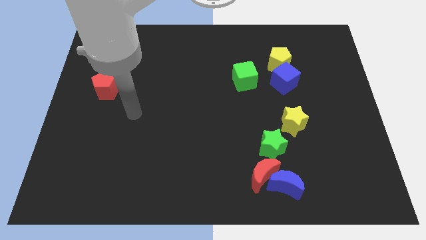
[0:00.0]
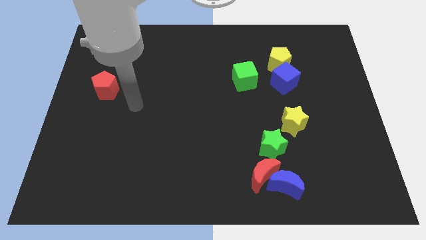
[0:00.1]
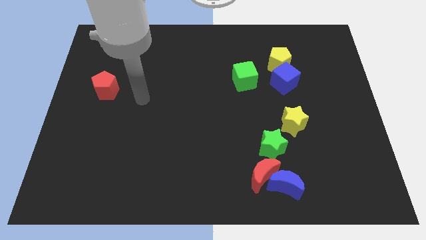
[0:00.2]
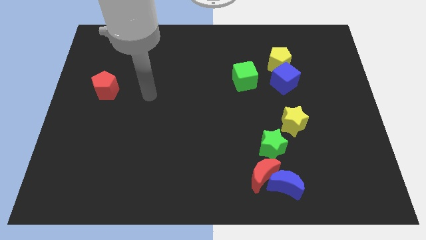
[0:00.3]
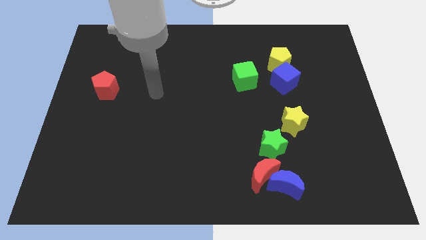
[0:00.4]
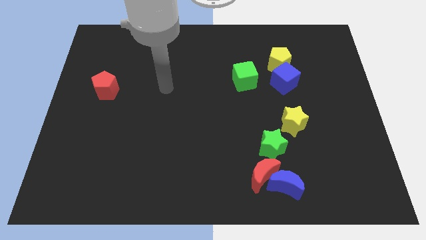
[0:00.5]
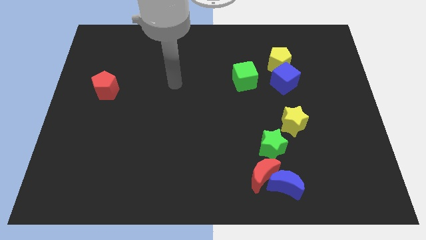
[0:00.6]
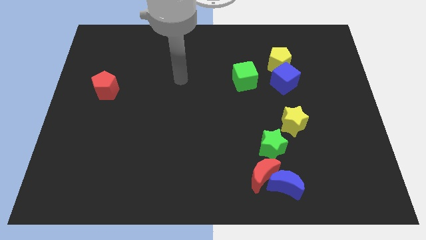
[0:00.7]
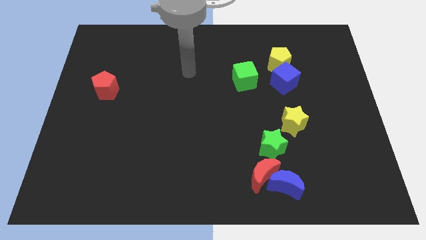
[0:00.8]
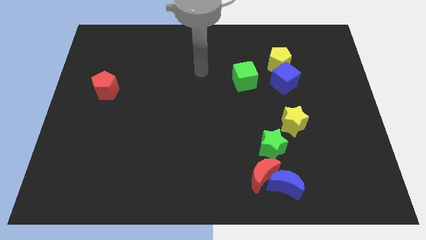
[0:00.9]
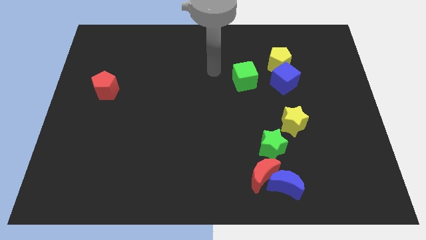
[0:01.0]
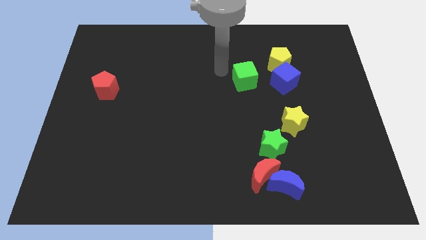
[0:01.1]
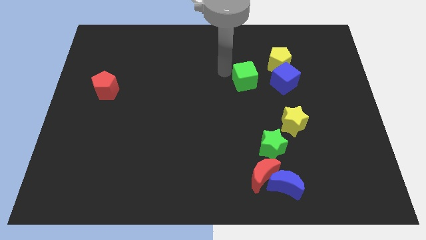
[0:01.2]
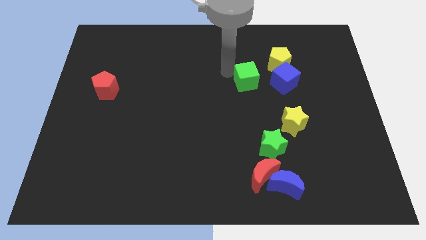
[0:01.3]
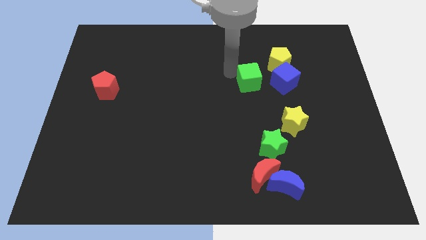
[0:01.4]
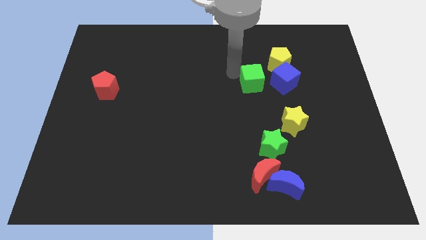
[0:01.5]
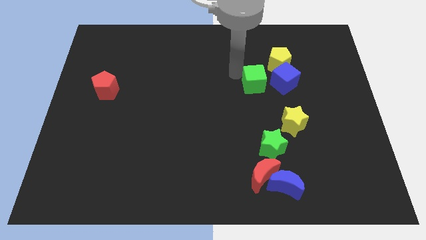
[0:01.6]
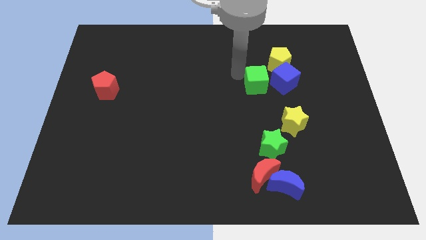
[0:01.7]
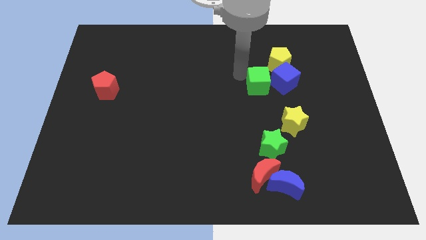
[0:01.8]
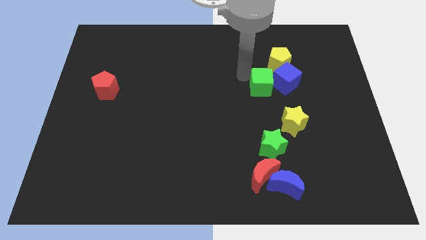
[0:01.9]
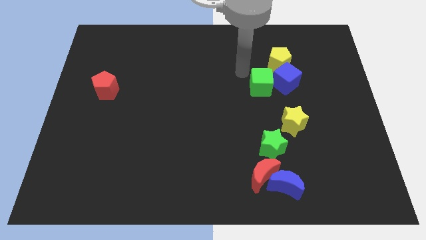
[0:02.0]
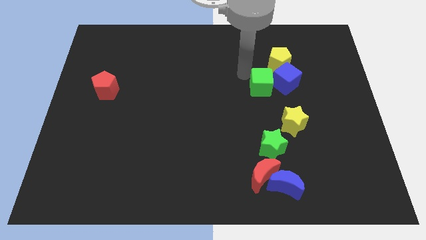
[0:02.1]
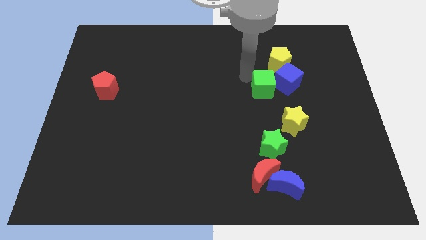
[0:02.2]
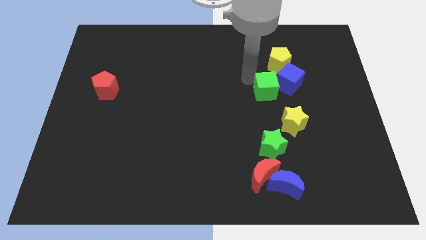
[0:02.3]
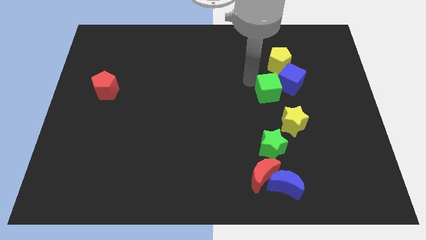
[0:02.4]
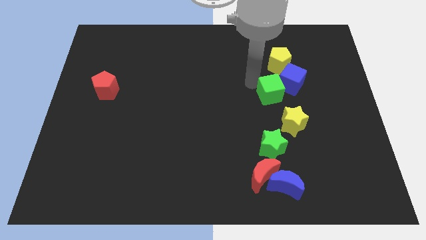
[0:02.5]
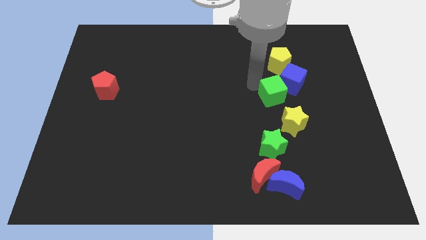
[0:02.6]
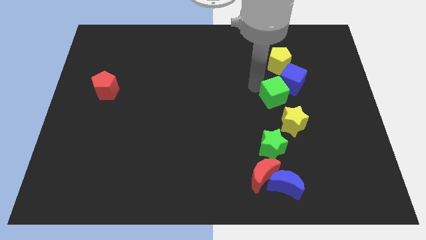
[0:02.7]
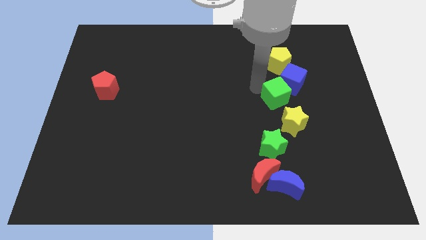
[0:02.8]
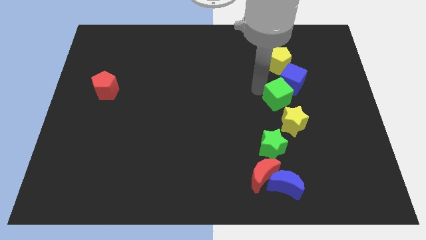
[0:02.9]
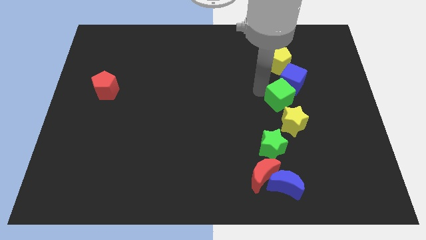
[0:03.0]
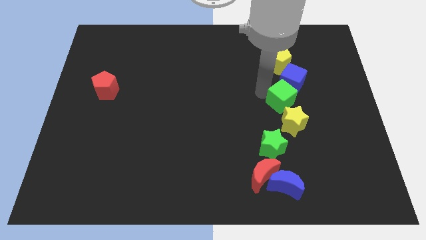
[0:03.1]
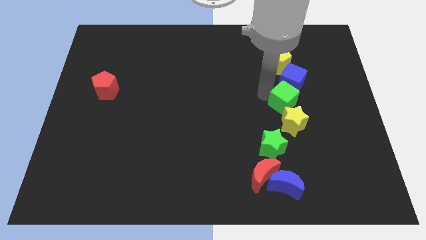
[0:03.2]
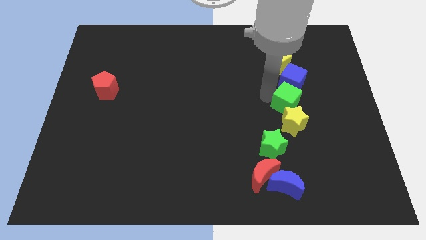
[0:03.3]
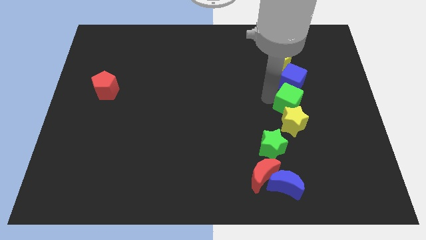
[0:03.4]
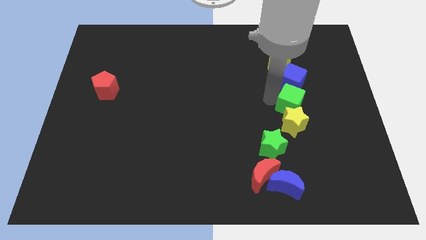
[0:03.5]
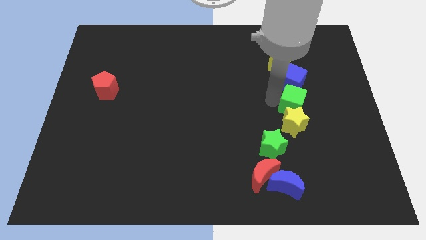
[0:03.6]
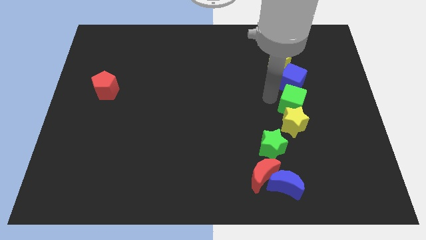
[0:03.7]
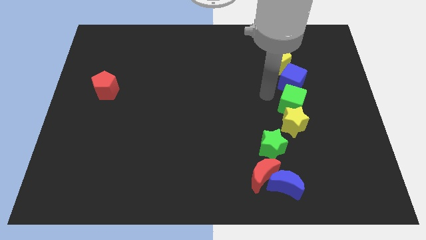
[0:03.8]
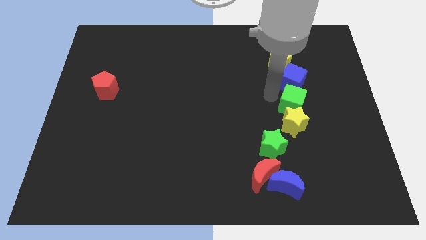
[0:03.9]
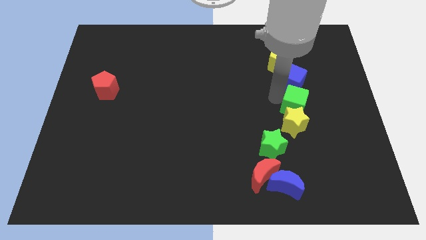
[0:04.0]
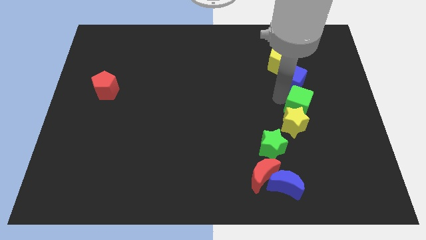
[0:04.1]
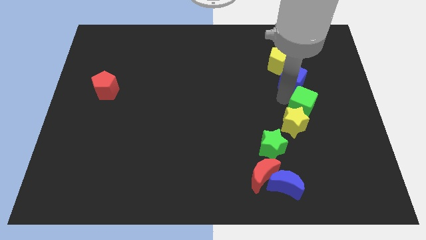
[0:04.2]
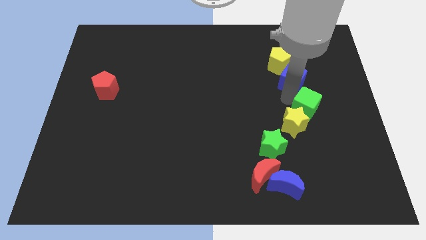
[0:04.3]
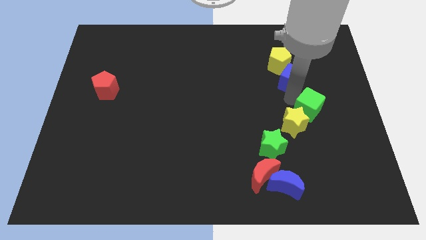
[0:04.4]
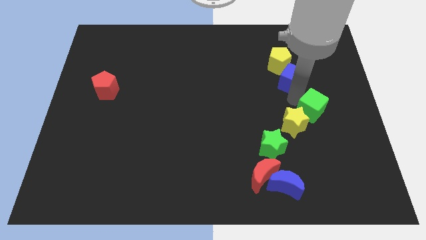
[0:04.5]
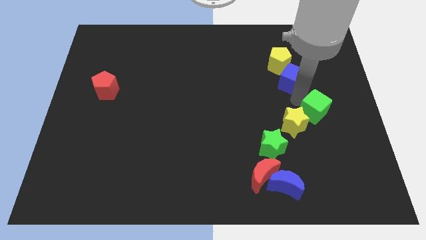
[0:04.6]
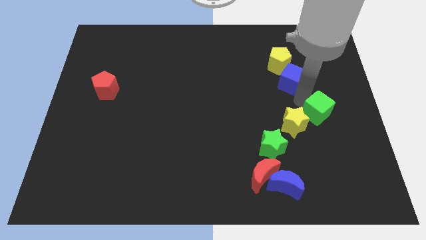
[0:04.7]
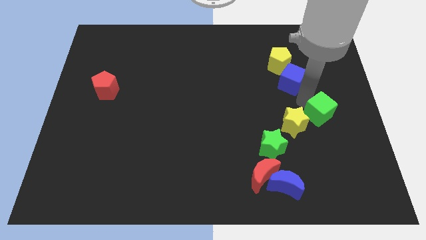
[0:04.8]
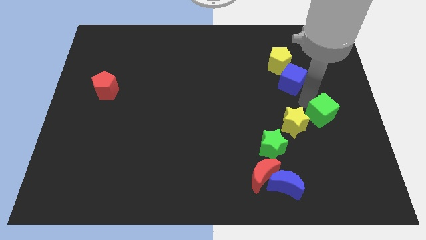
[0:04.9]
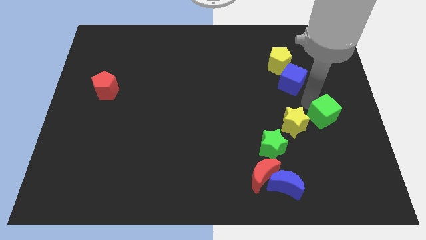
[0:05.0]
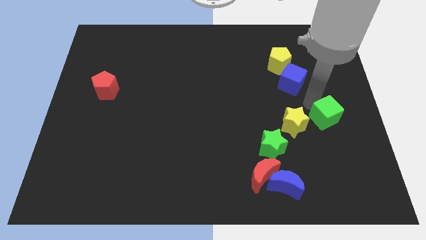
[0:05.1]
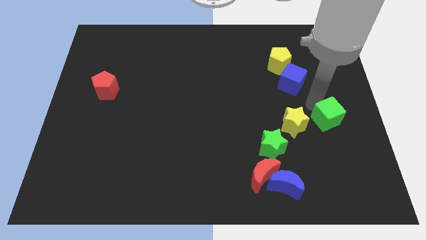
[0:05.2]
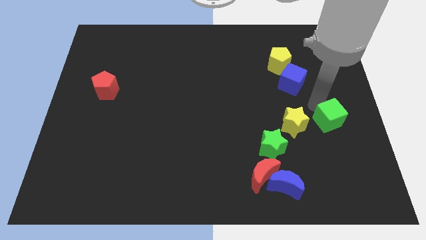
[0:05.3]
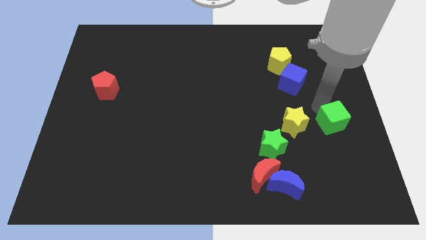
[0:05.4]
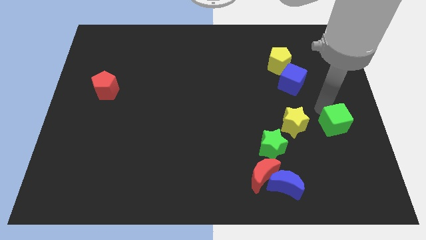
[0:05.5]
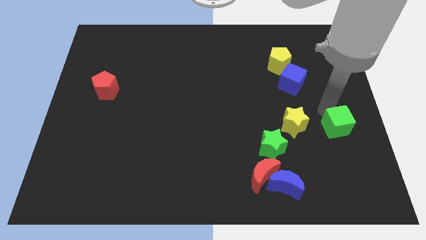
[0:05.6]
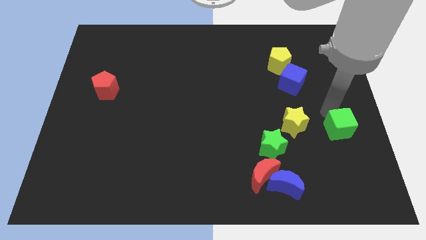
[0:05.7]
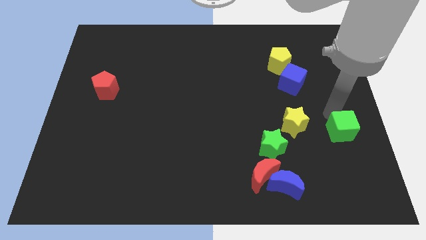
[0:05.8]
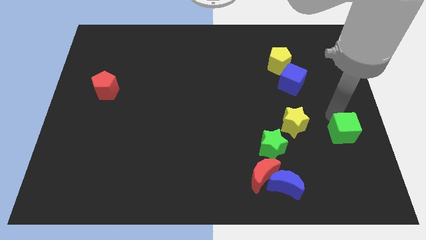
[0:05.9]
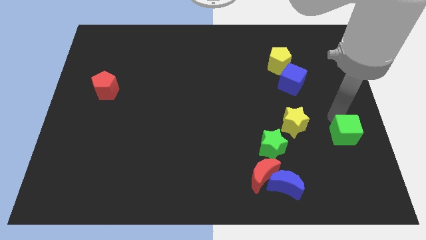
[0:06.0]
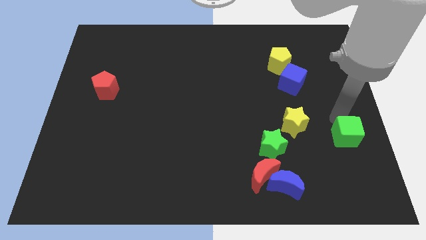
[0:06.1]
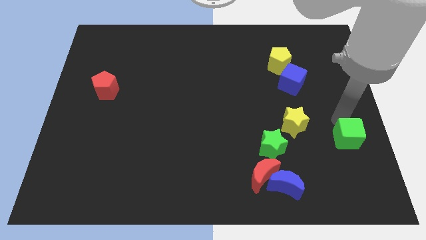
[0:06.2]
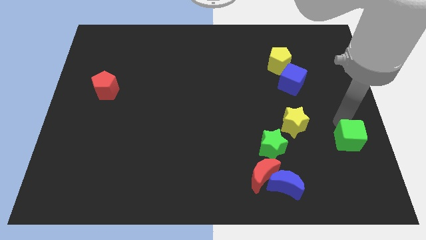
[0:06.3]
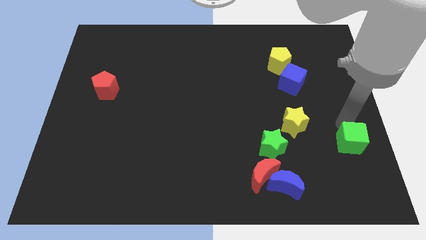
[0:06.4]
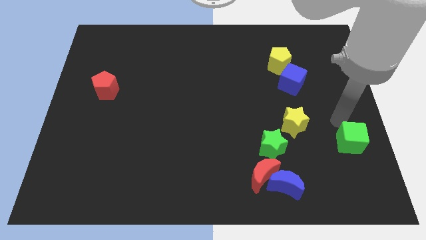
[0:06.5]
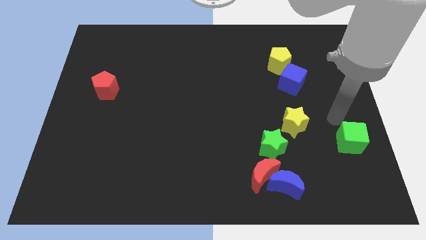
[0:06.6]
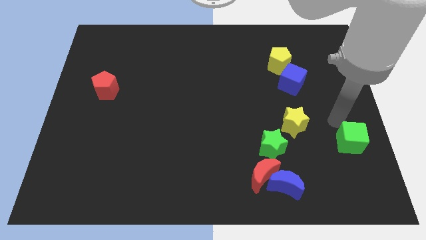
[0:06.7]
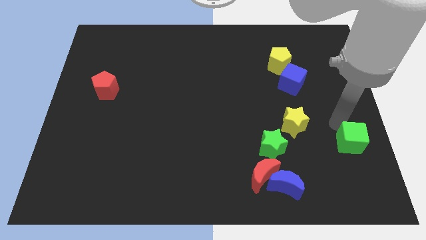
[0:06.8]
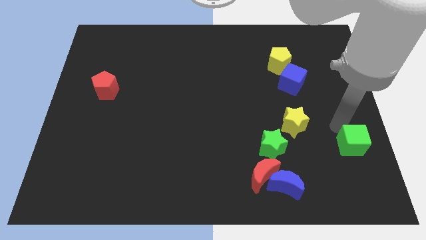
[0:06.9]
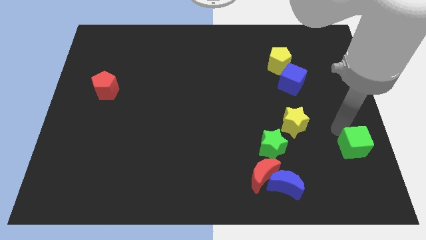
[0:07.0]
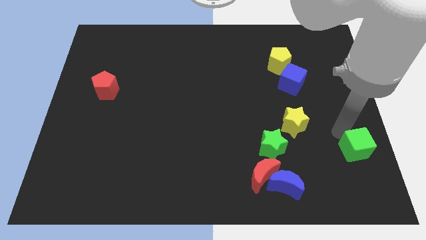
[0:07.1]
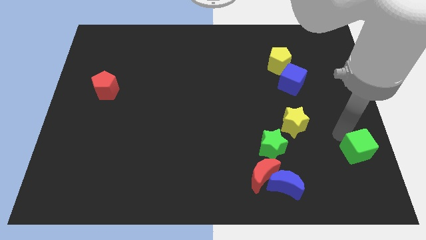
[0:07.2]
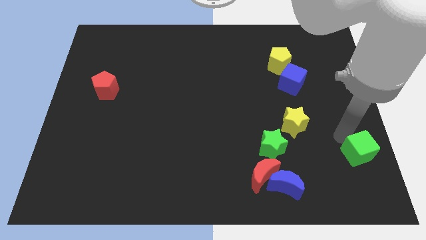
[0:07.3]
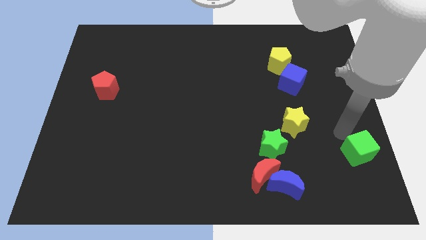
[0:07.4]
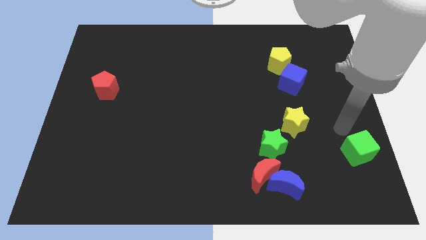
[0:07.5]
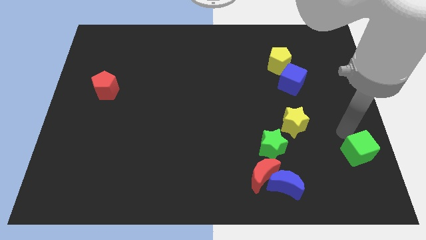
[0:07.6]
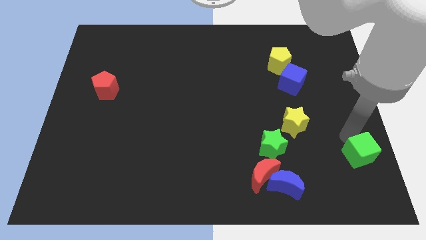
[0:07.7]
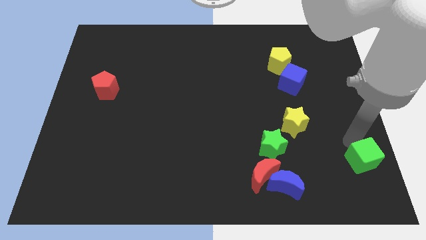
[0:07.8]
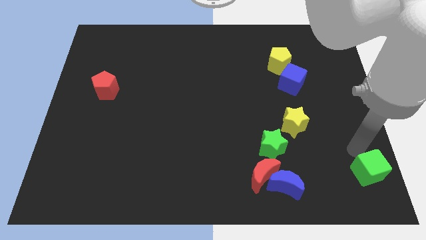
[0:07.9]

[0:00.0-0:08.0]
put the green cube to the lower right corner
